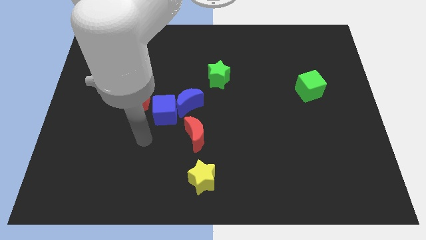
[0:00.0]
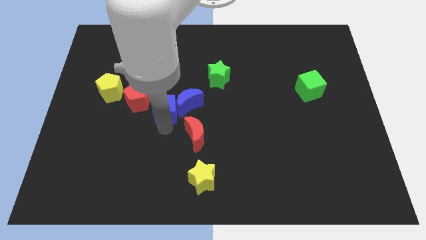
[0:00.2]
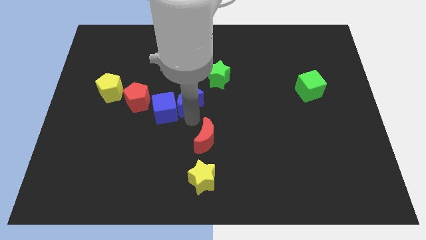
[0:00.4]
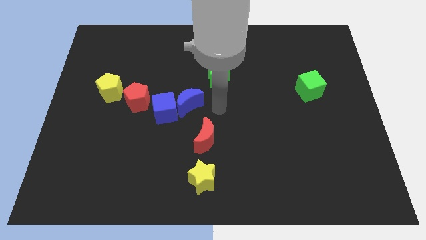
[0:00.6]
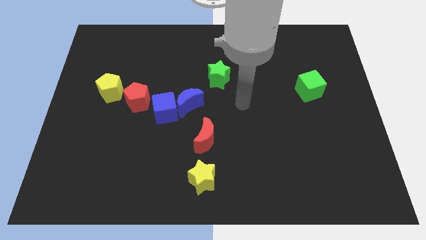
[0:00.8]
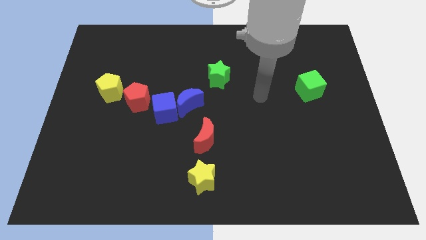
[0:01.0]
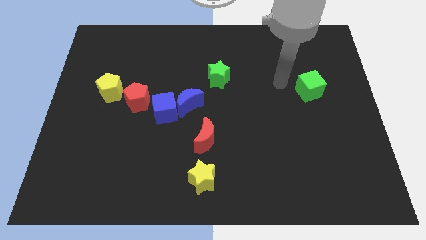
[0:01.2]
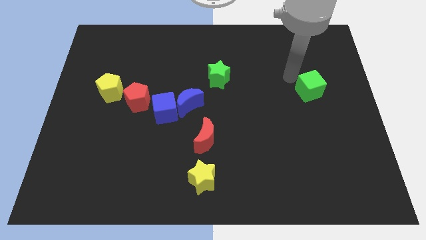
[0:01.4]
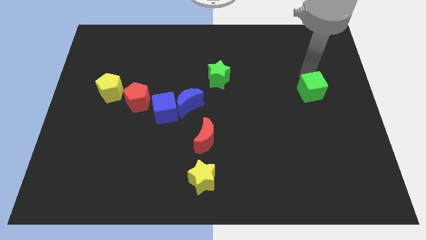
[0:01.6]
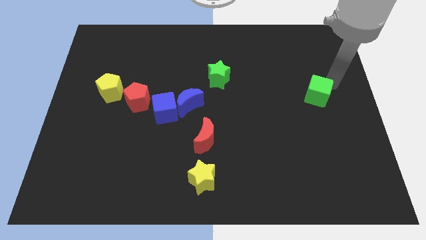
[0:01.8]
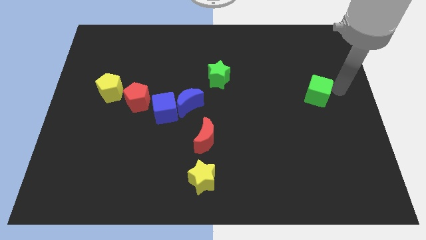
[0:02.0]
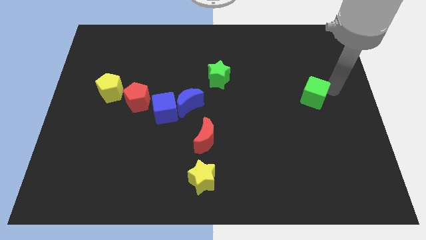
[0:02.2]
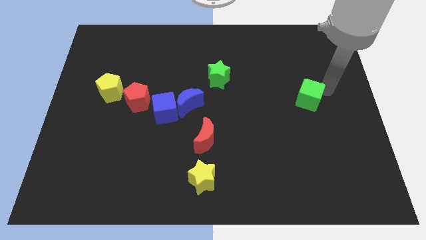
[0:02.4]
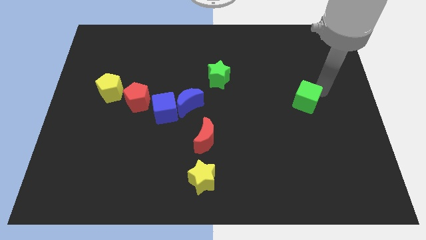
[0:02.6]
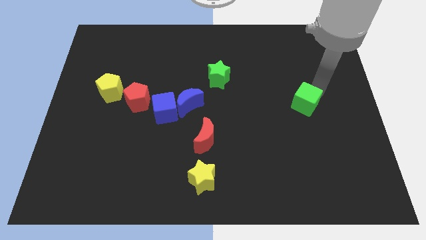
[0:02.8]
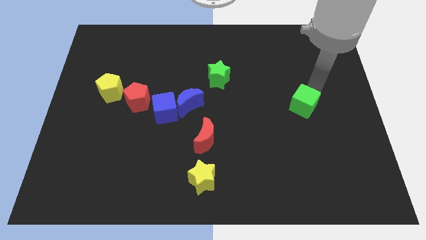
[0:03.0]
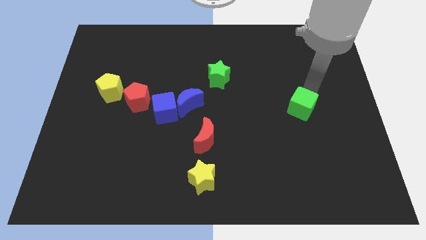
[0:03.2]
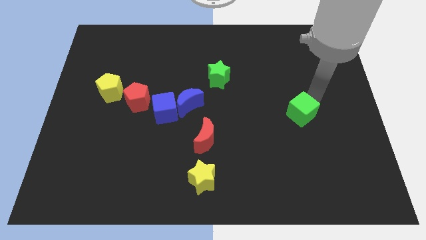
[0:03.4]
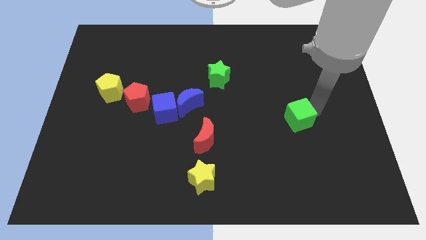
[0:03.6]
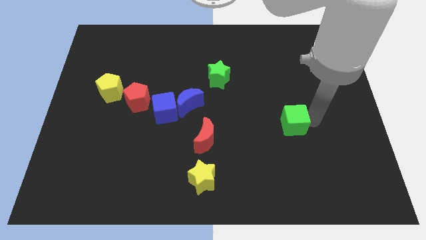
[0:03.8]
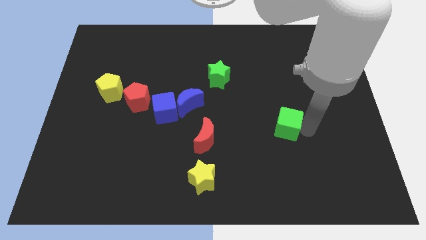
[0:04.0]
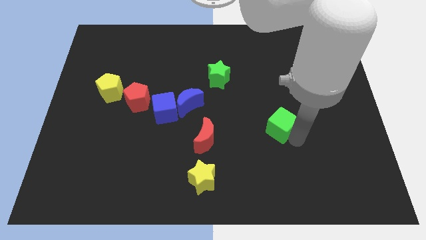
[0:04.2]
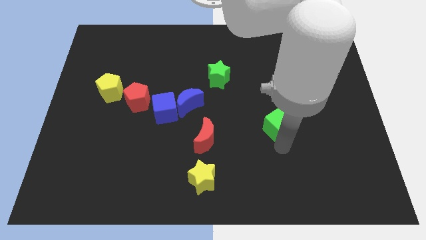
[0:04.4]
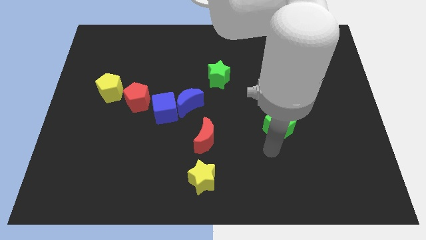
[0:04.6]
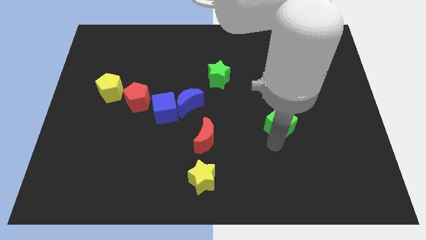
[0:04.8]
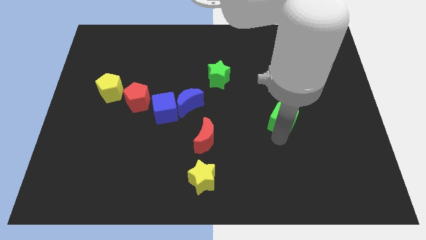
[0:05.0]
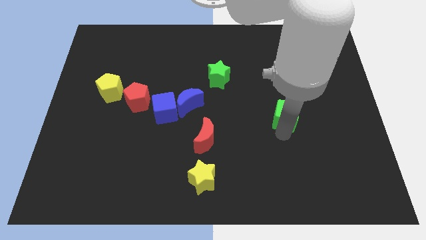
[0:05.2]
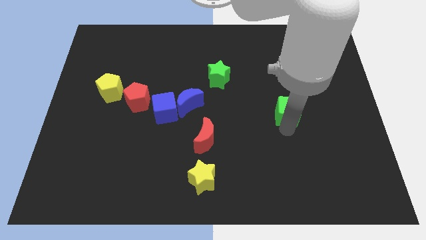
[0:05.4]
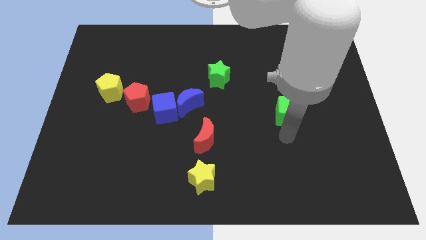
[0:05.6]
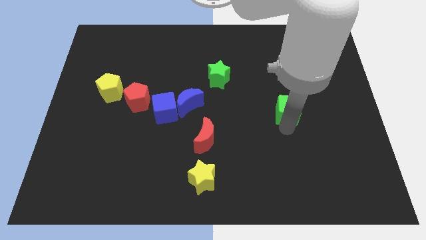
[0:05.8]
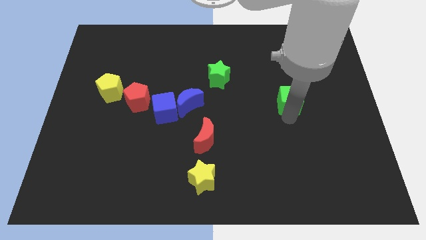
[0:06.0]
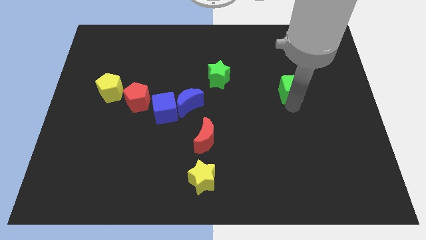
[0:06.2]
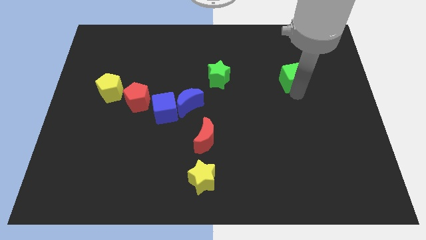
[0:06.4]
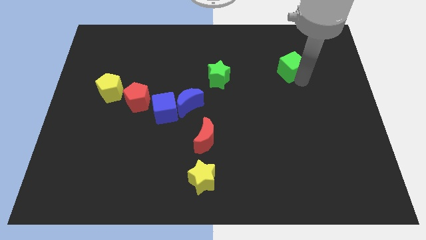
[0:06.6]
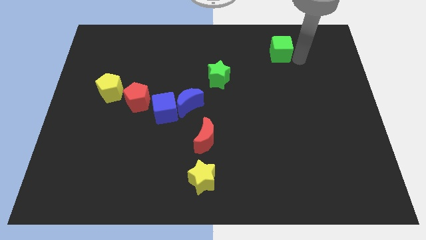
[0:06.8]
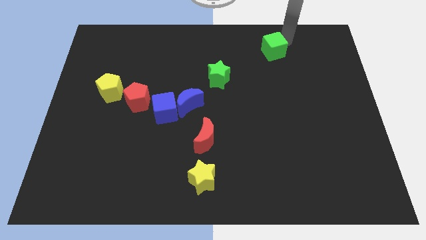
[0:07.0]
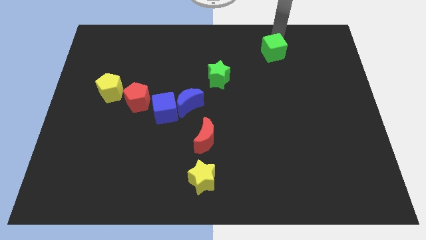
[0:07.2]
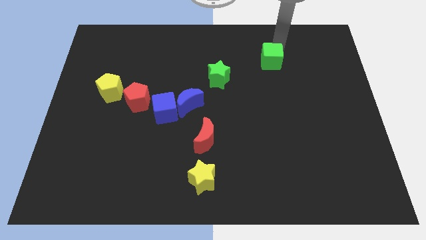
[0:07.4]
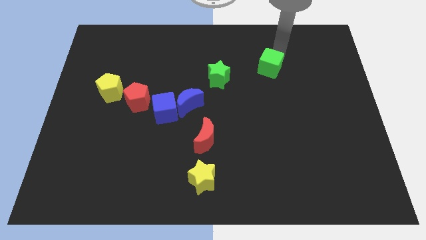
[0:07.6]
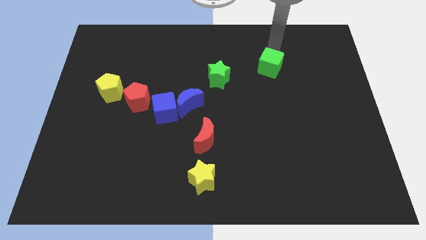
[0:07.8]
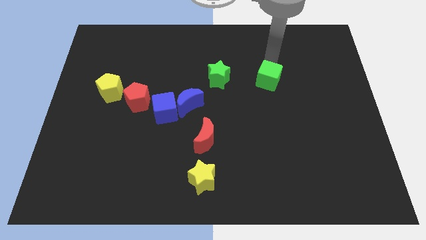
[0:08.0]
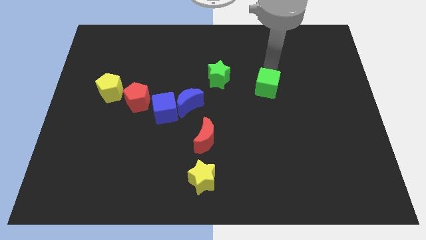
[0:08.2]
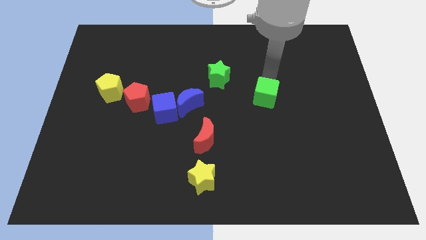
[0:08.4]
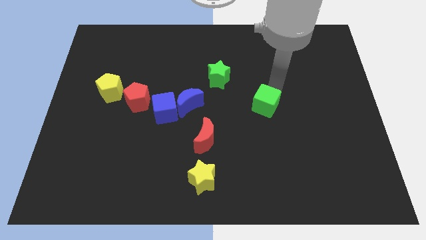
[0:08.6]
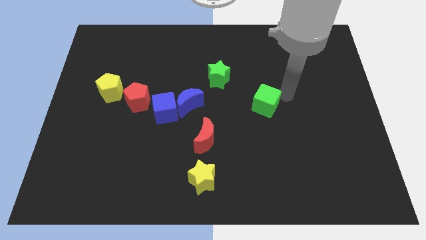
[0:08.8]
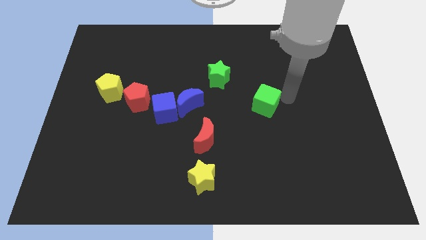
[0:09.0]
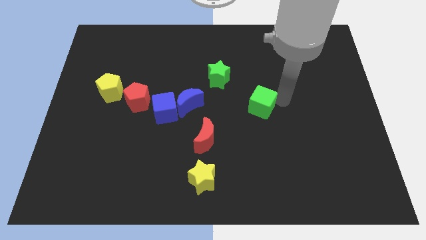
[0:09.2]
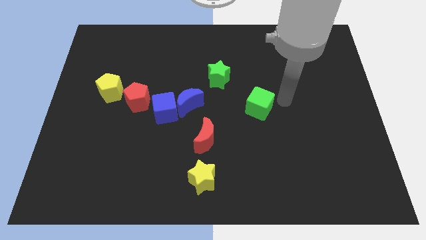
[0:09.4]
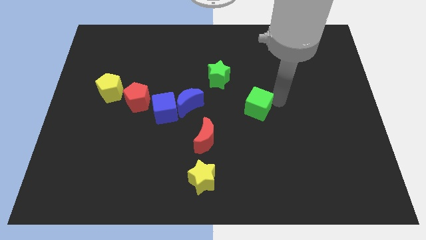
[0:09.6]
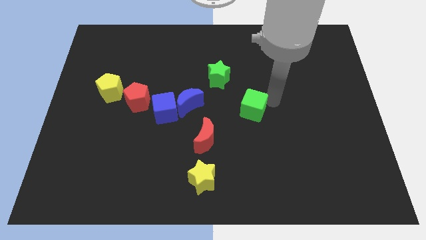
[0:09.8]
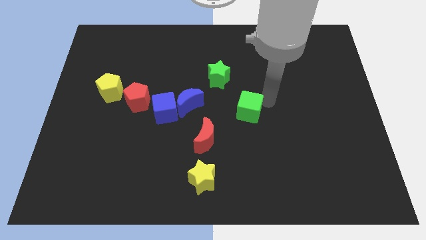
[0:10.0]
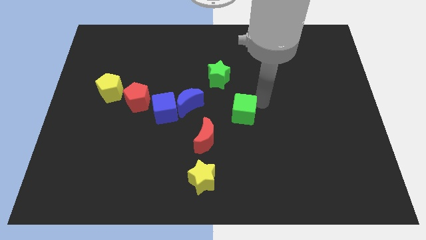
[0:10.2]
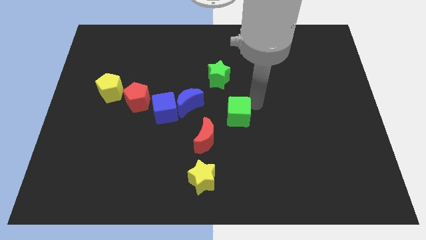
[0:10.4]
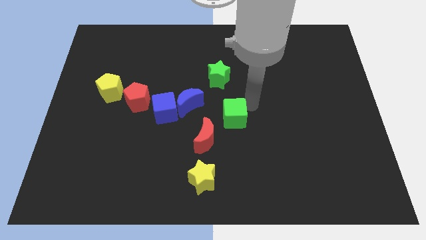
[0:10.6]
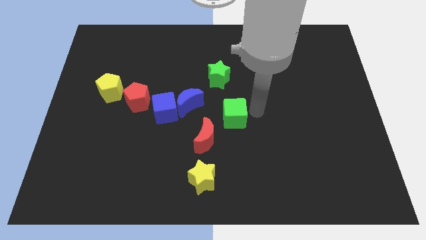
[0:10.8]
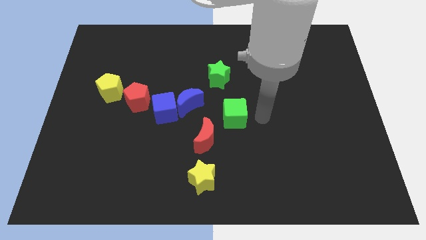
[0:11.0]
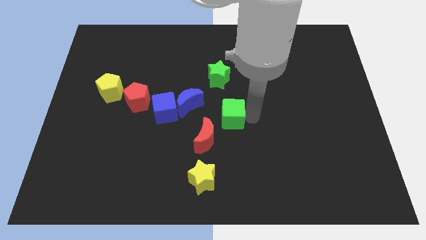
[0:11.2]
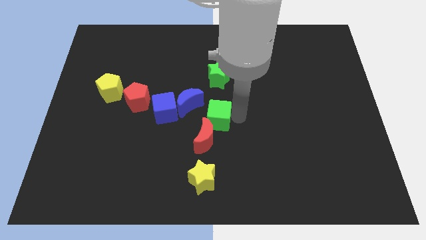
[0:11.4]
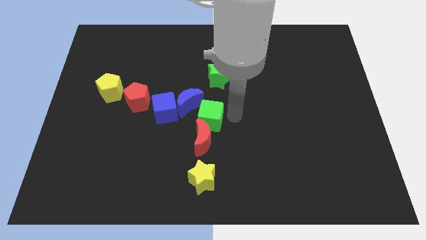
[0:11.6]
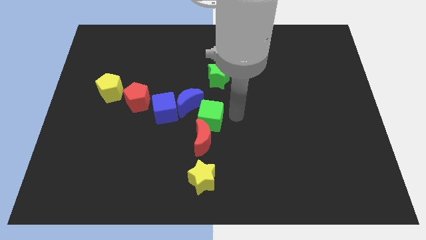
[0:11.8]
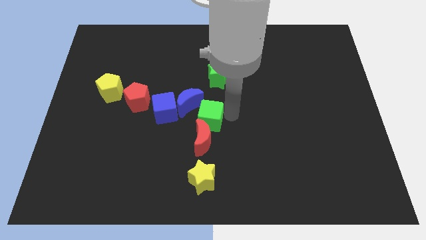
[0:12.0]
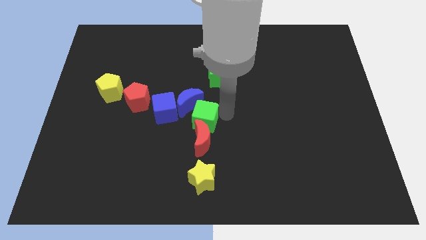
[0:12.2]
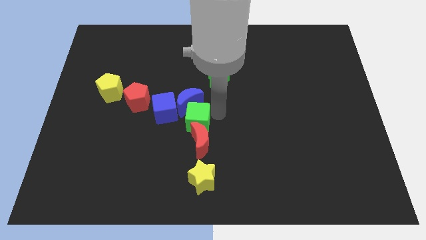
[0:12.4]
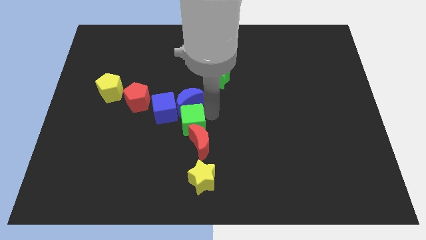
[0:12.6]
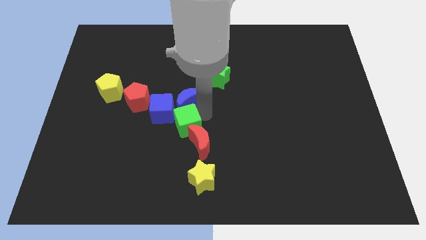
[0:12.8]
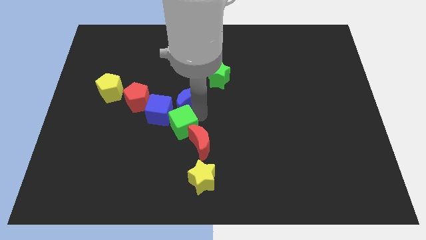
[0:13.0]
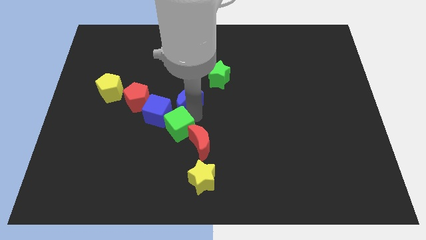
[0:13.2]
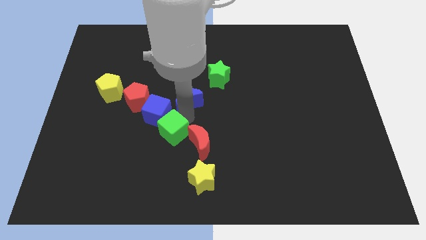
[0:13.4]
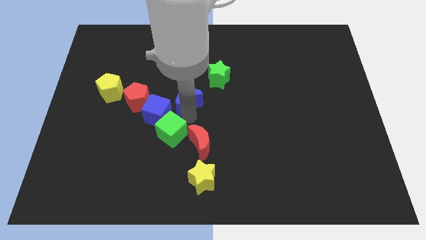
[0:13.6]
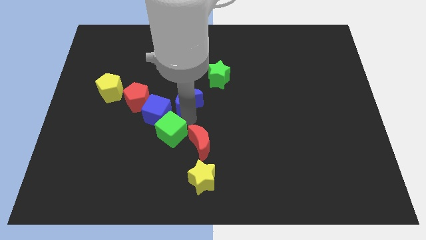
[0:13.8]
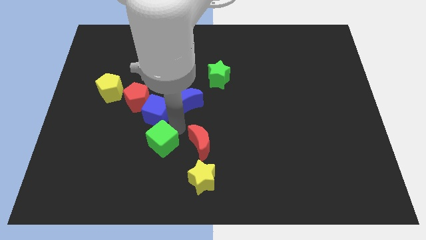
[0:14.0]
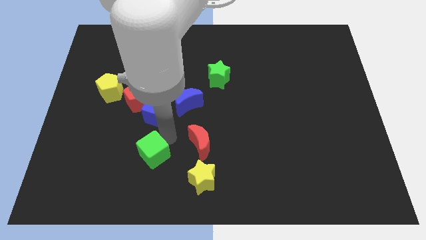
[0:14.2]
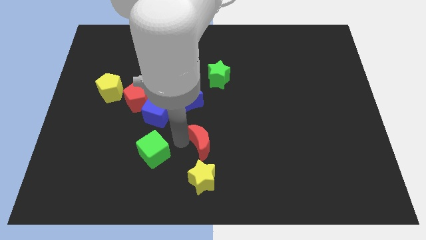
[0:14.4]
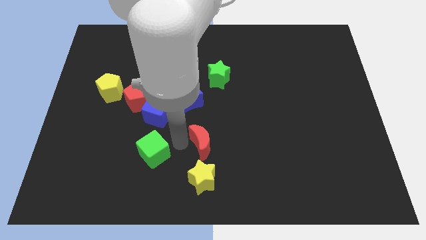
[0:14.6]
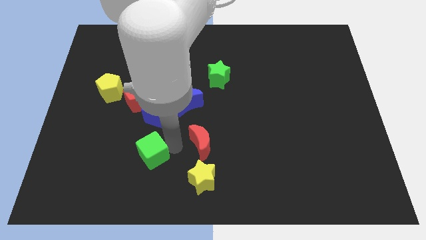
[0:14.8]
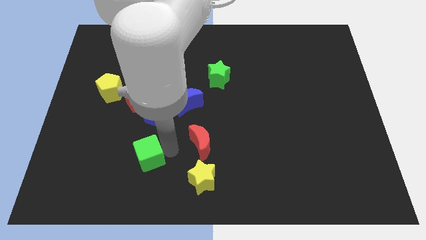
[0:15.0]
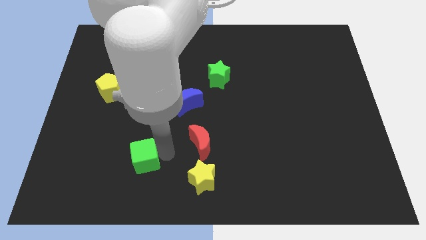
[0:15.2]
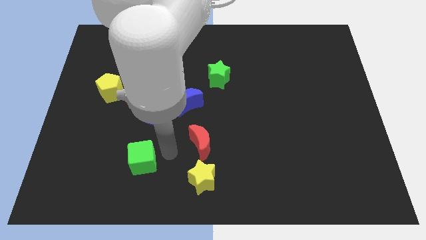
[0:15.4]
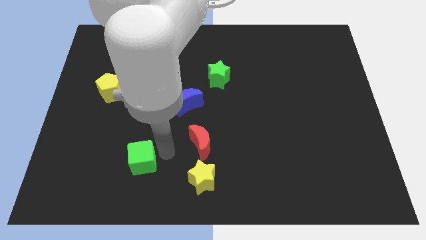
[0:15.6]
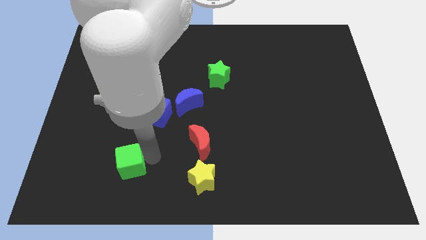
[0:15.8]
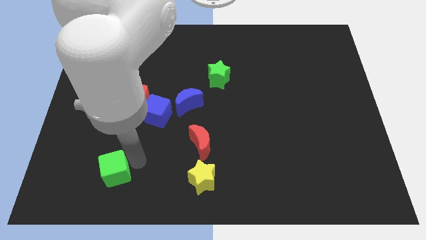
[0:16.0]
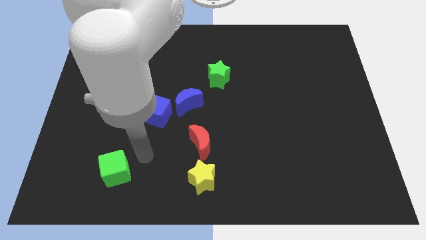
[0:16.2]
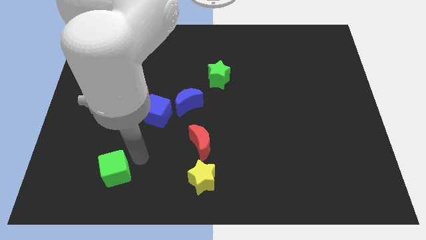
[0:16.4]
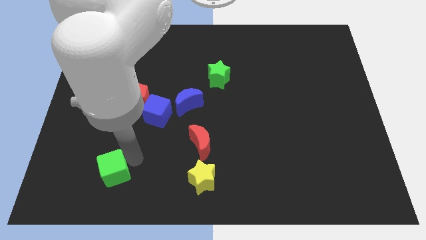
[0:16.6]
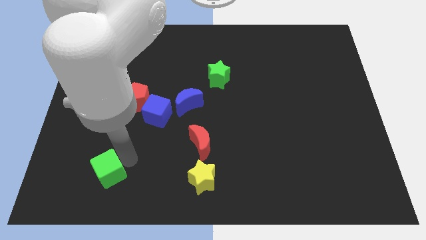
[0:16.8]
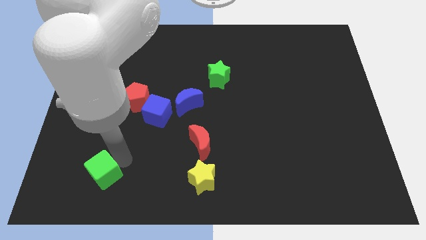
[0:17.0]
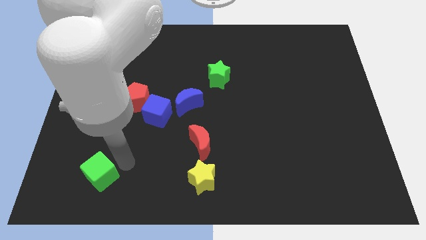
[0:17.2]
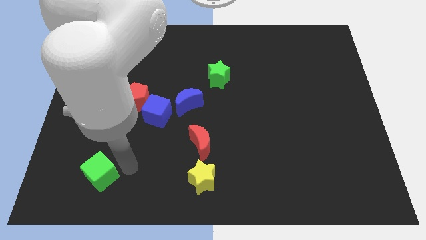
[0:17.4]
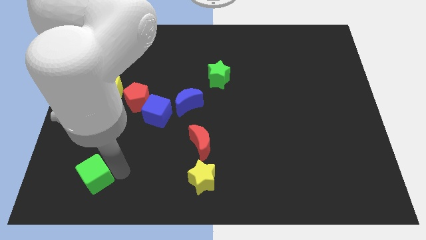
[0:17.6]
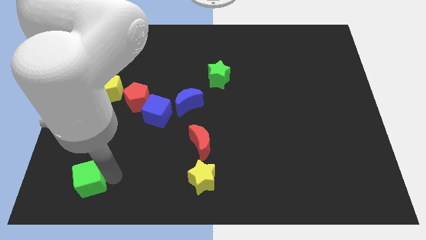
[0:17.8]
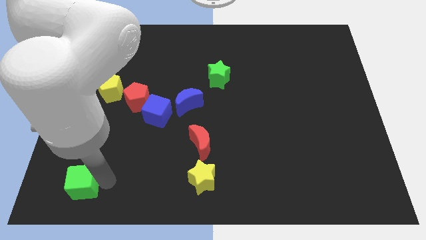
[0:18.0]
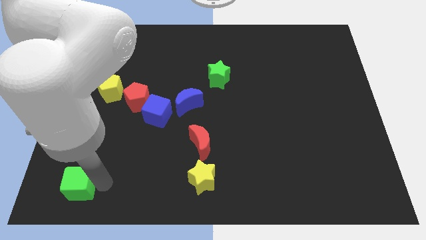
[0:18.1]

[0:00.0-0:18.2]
slide the green cube to the bottom left
